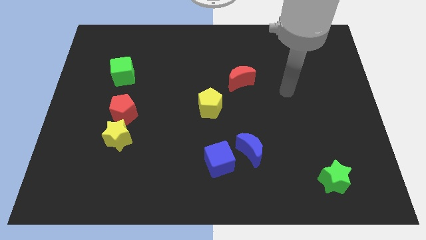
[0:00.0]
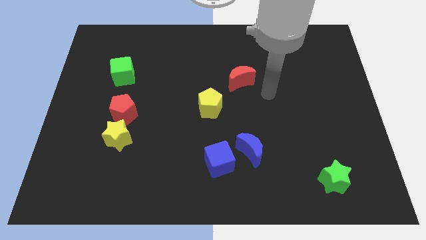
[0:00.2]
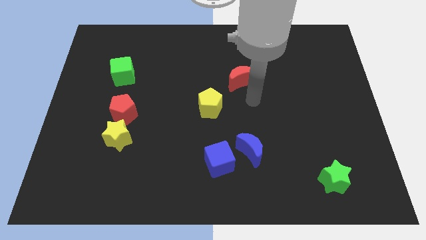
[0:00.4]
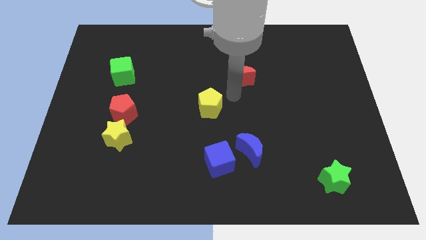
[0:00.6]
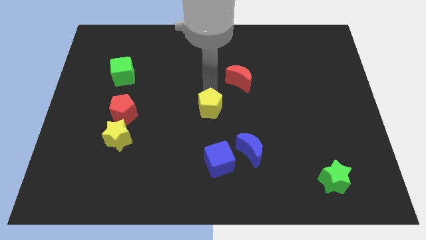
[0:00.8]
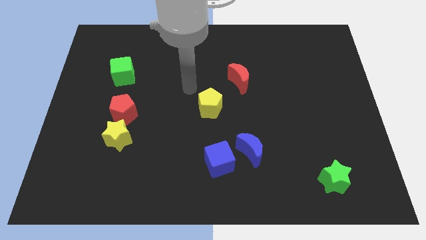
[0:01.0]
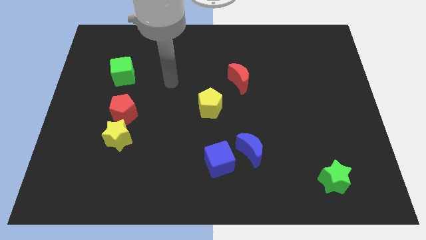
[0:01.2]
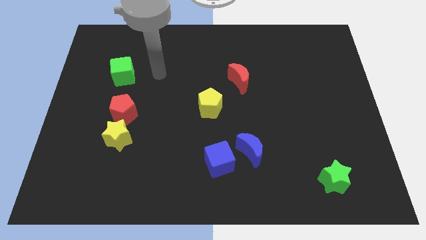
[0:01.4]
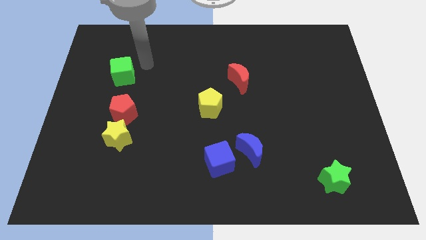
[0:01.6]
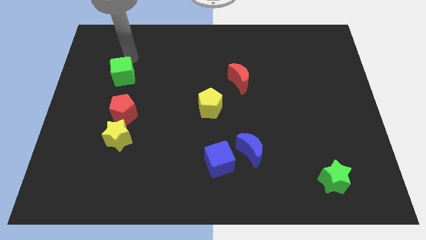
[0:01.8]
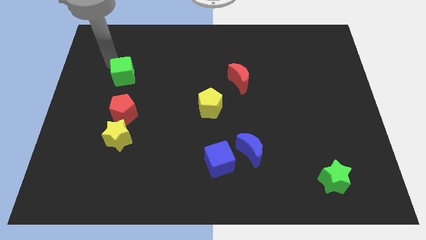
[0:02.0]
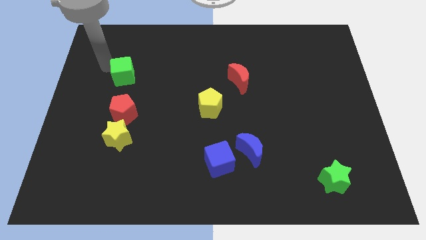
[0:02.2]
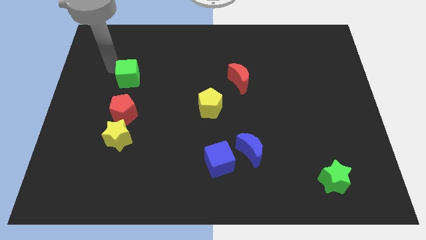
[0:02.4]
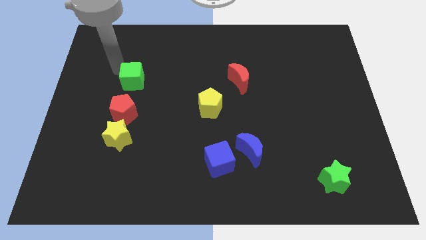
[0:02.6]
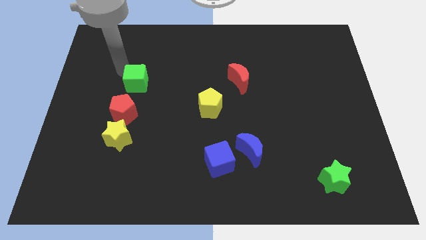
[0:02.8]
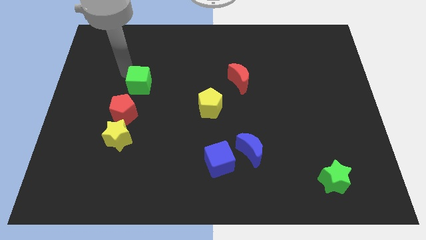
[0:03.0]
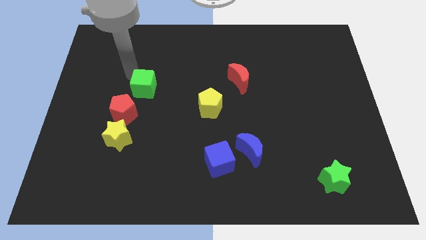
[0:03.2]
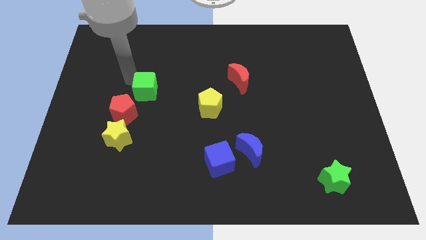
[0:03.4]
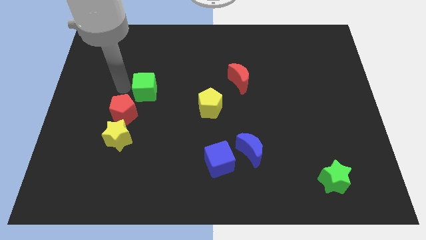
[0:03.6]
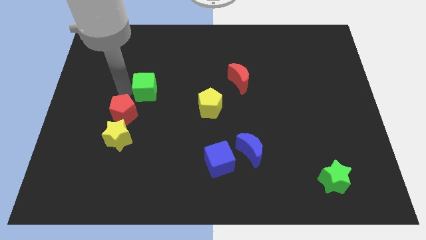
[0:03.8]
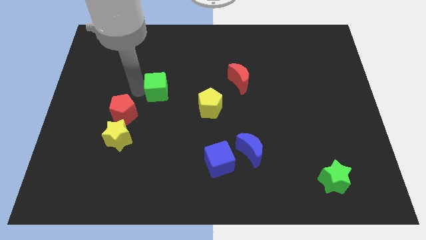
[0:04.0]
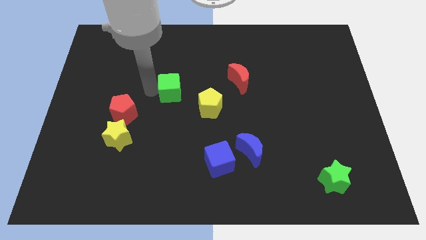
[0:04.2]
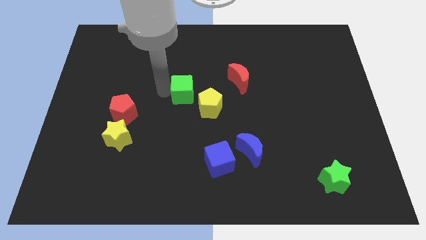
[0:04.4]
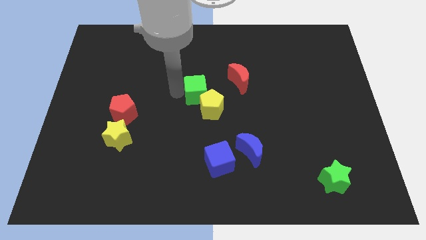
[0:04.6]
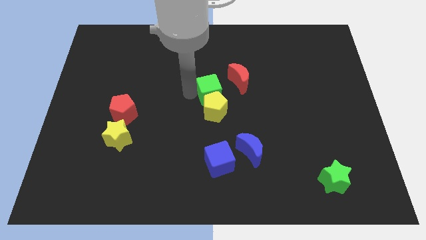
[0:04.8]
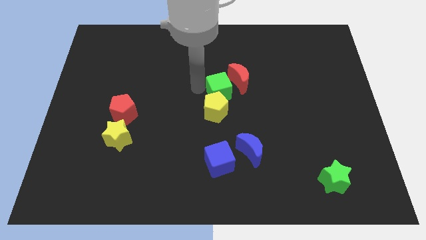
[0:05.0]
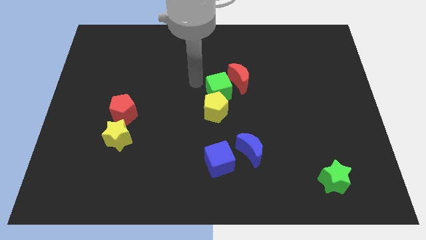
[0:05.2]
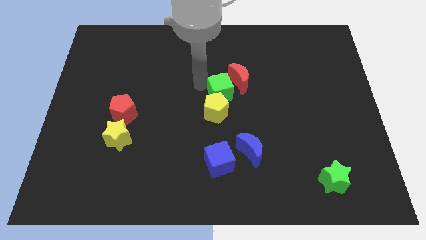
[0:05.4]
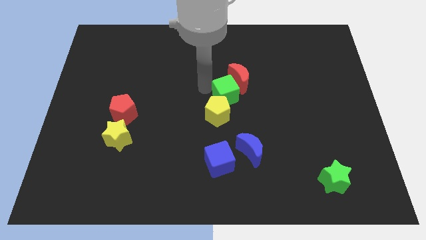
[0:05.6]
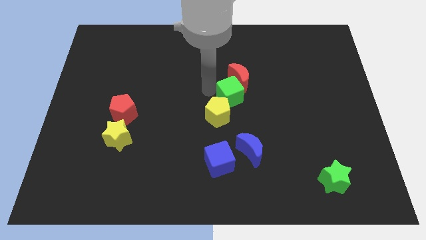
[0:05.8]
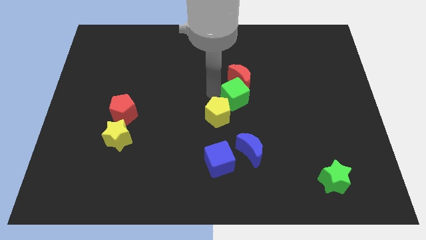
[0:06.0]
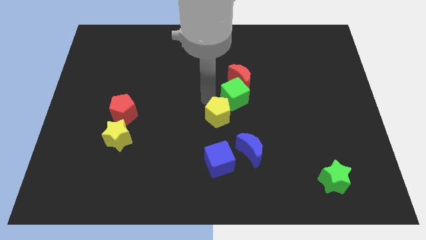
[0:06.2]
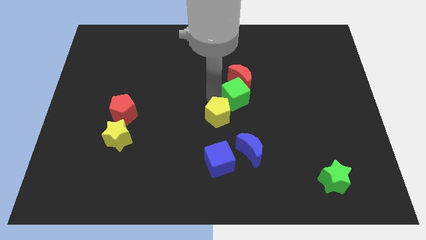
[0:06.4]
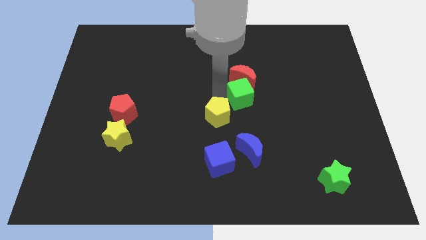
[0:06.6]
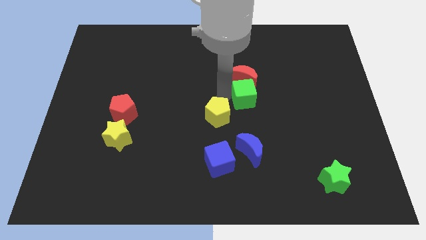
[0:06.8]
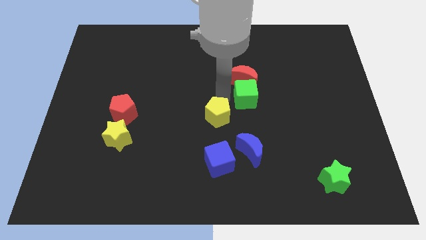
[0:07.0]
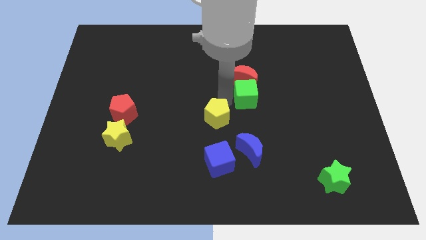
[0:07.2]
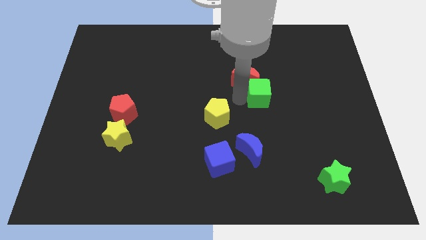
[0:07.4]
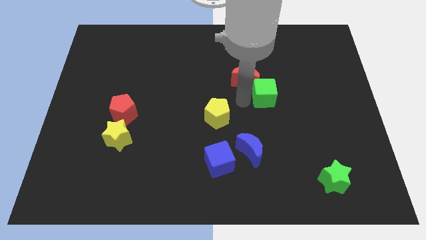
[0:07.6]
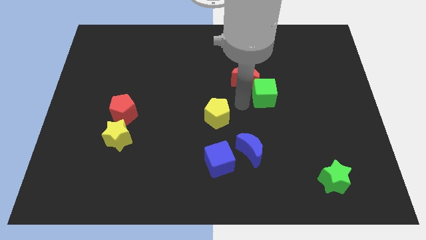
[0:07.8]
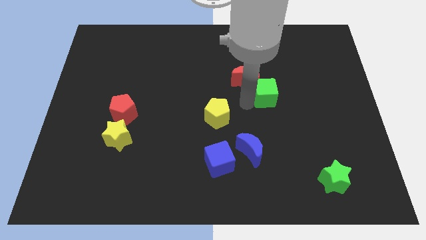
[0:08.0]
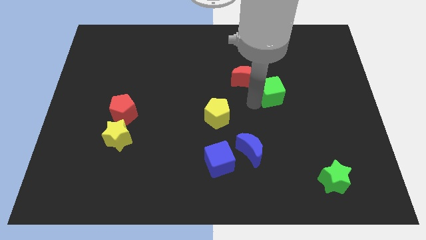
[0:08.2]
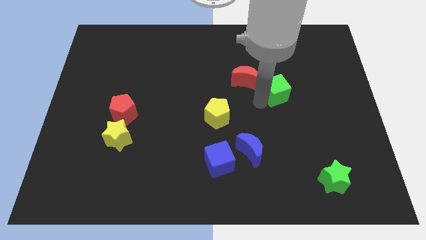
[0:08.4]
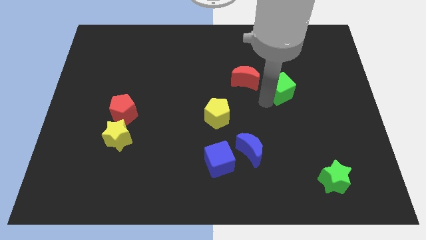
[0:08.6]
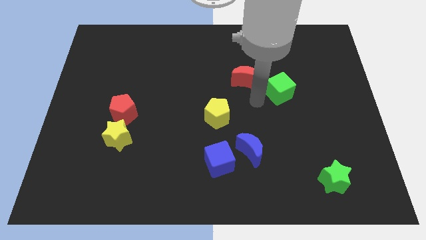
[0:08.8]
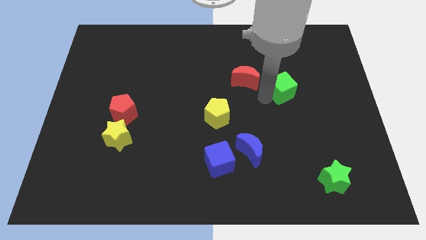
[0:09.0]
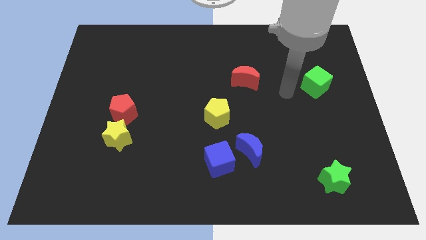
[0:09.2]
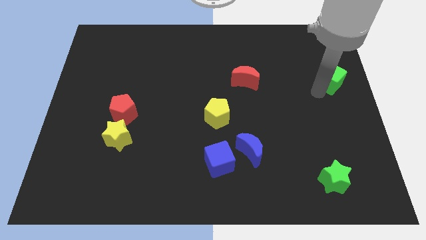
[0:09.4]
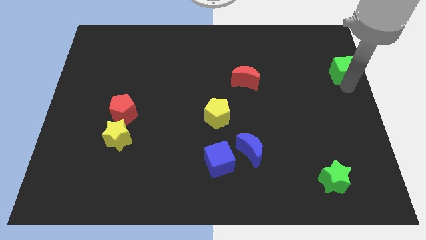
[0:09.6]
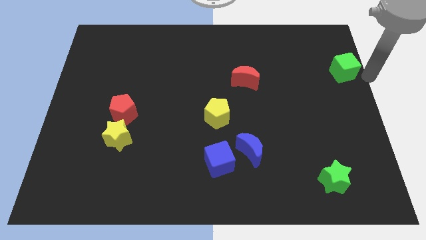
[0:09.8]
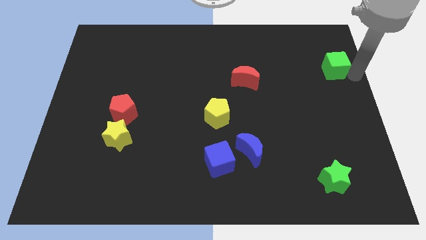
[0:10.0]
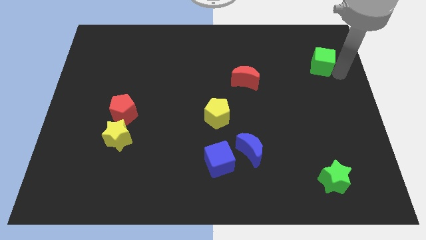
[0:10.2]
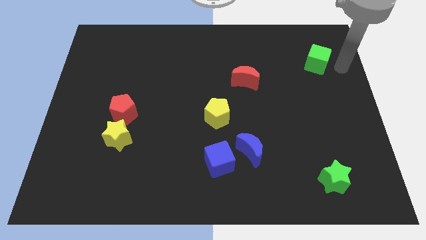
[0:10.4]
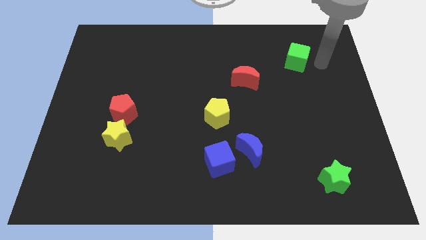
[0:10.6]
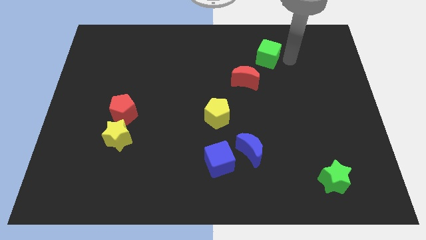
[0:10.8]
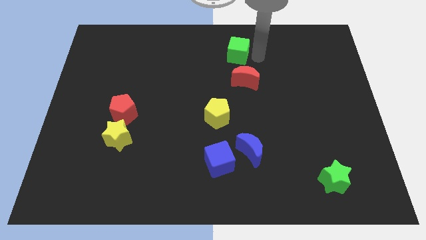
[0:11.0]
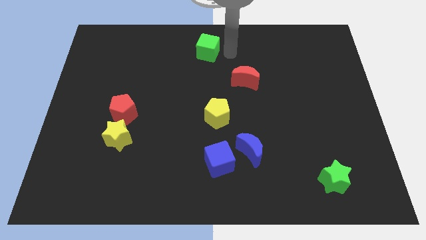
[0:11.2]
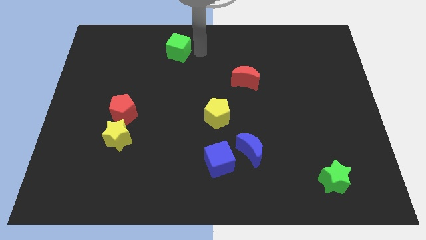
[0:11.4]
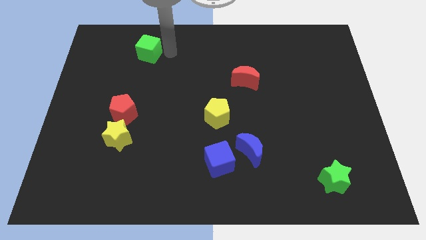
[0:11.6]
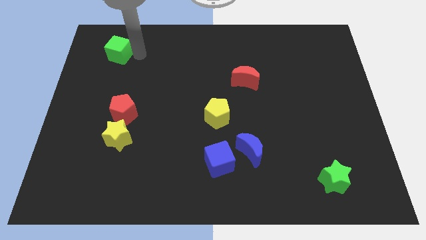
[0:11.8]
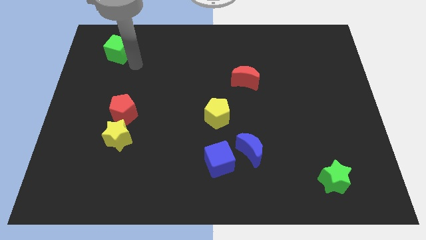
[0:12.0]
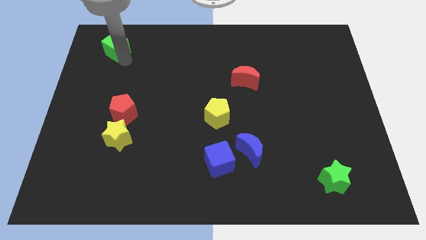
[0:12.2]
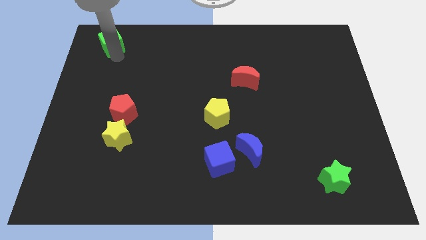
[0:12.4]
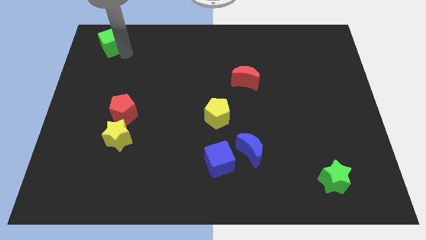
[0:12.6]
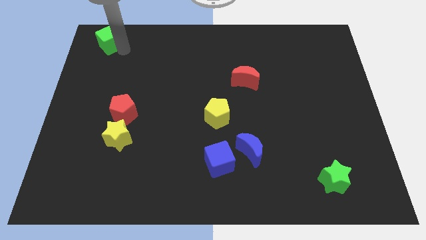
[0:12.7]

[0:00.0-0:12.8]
slide the green cube to the top left
